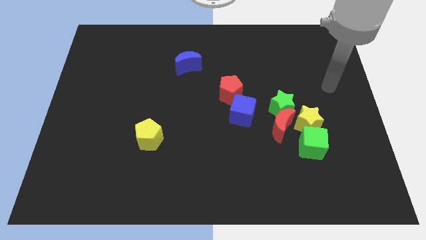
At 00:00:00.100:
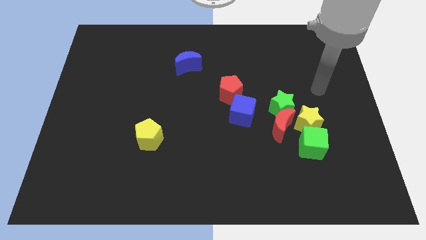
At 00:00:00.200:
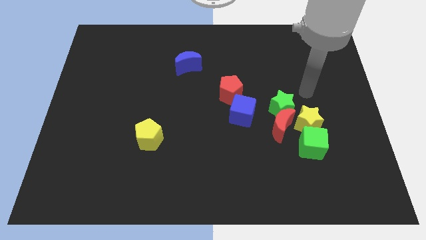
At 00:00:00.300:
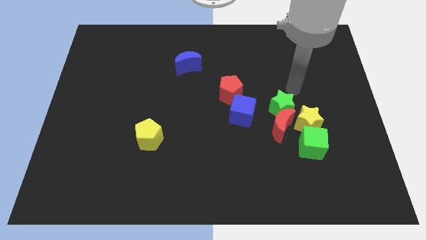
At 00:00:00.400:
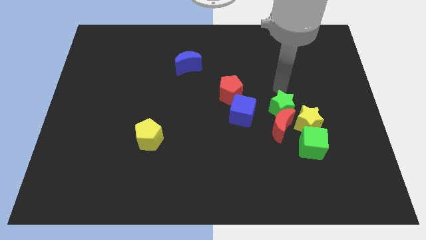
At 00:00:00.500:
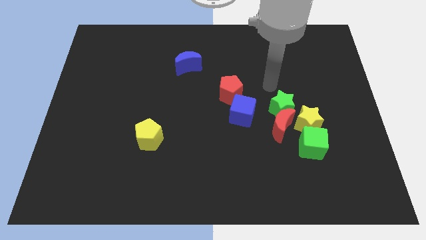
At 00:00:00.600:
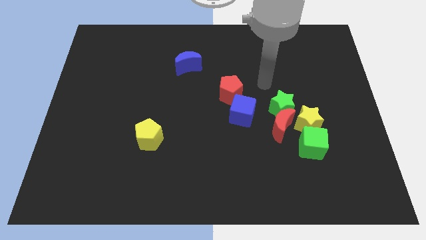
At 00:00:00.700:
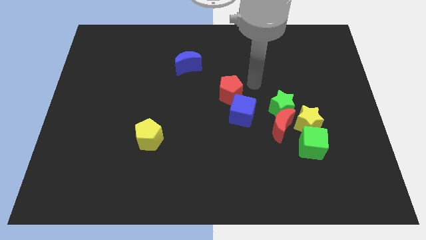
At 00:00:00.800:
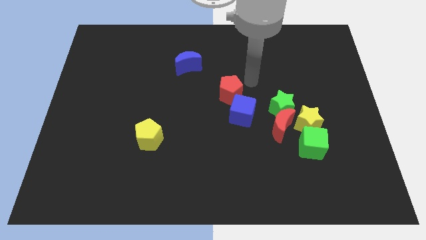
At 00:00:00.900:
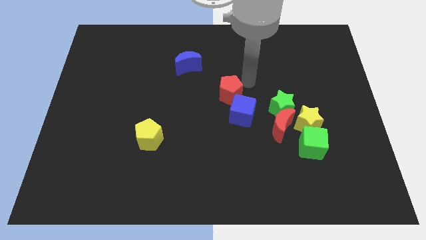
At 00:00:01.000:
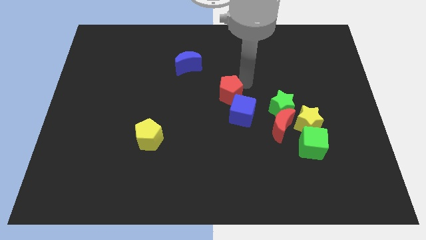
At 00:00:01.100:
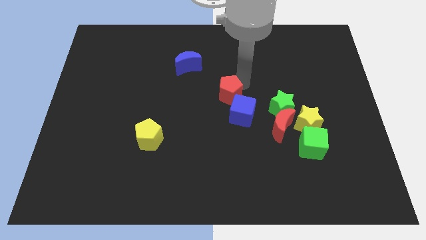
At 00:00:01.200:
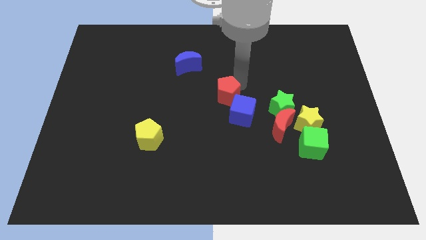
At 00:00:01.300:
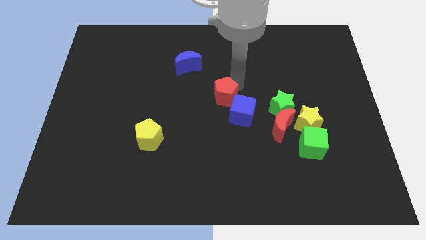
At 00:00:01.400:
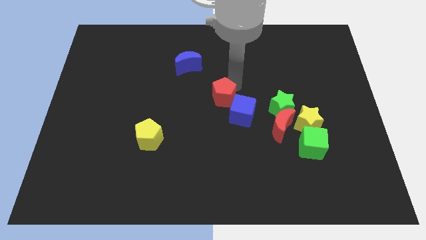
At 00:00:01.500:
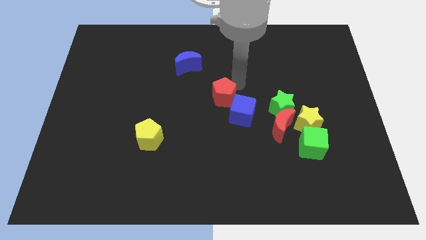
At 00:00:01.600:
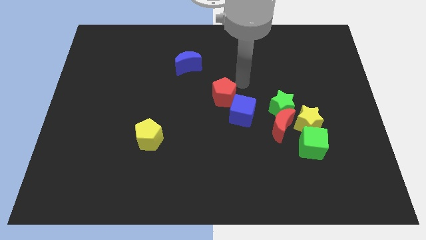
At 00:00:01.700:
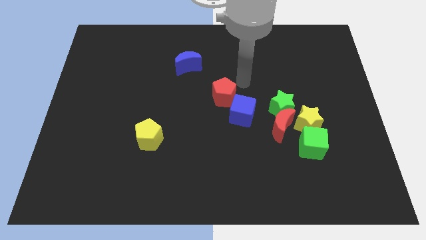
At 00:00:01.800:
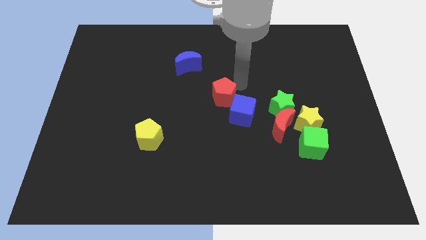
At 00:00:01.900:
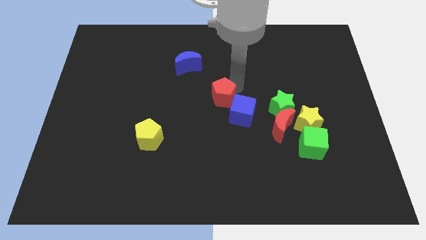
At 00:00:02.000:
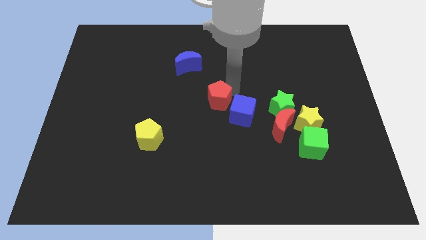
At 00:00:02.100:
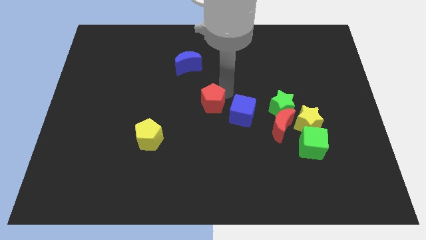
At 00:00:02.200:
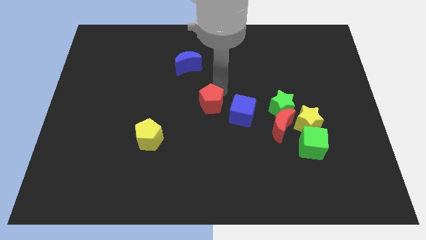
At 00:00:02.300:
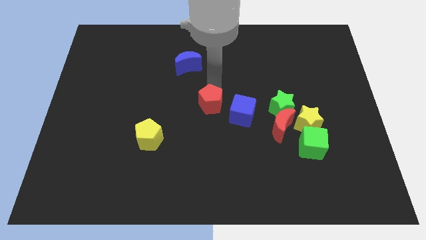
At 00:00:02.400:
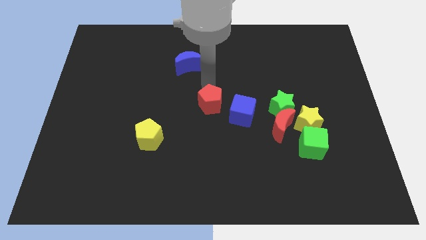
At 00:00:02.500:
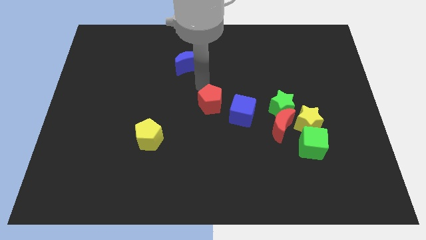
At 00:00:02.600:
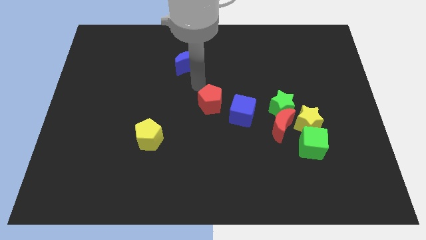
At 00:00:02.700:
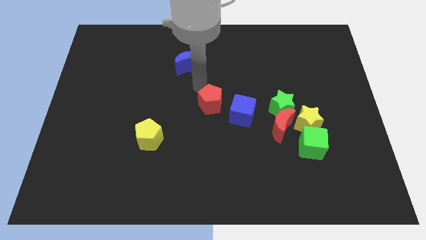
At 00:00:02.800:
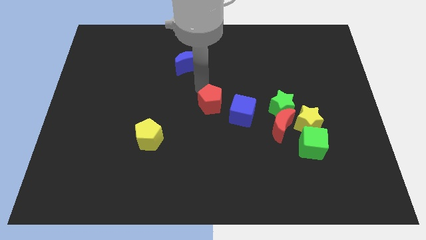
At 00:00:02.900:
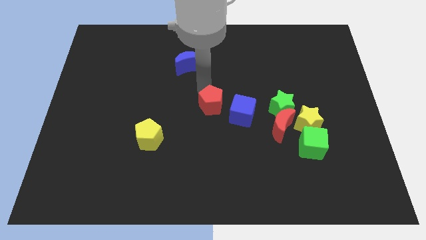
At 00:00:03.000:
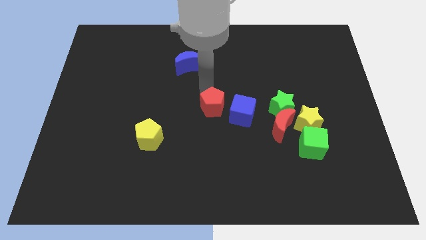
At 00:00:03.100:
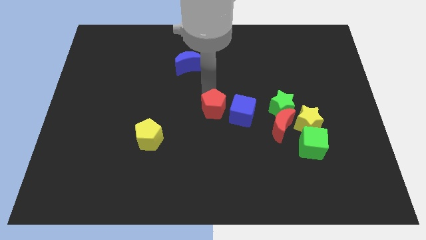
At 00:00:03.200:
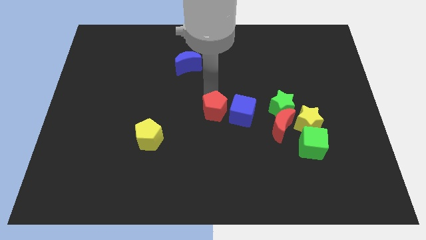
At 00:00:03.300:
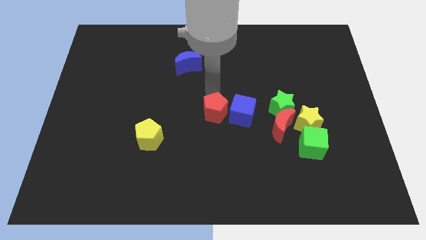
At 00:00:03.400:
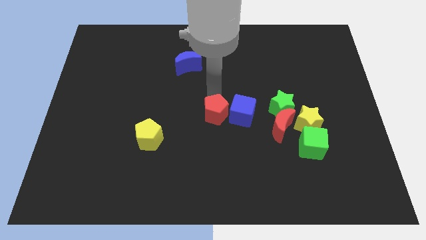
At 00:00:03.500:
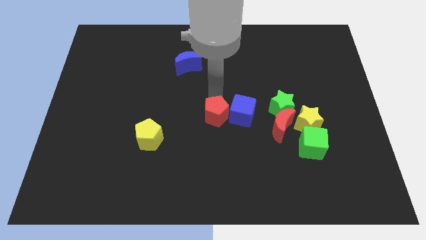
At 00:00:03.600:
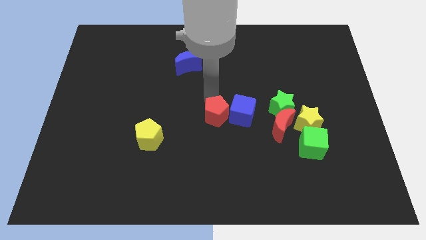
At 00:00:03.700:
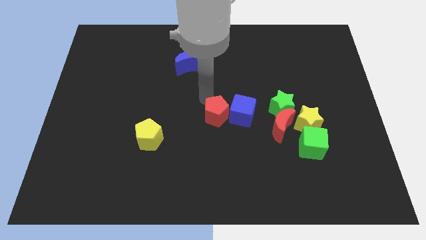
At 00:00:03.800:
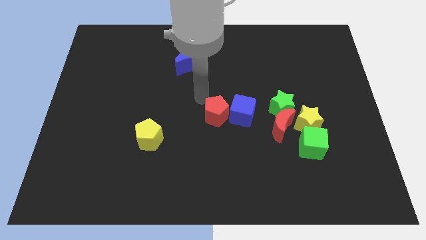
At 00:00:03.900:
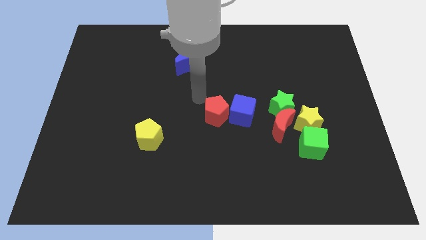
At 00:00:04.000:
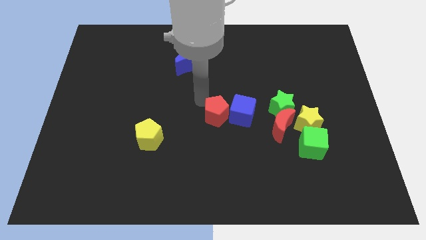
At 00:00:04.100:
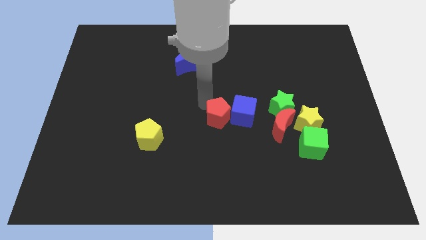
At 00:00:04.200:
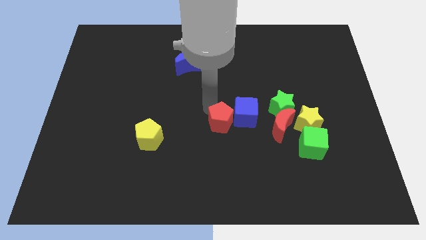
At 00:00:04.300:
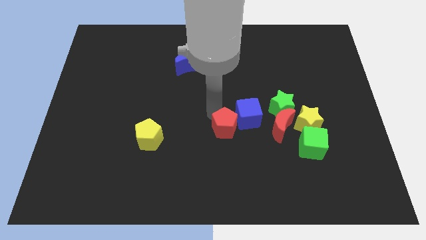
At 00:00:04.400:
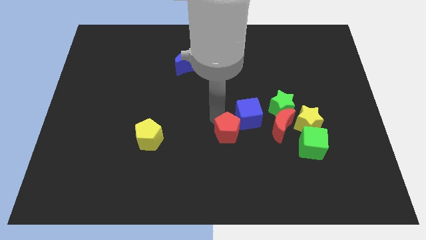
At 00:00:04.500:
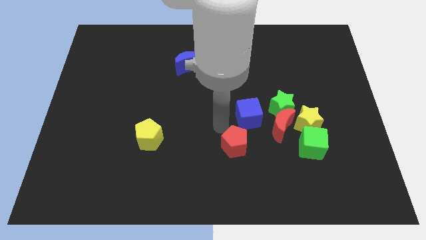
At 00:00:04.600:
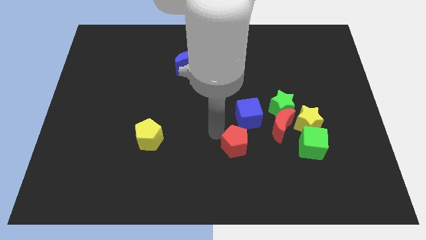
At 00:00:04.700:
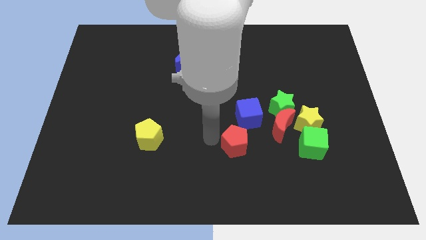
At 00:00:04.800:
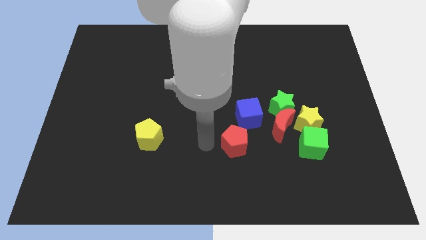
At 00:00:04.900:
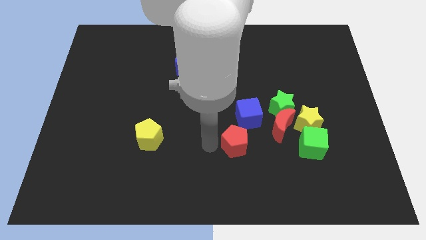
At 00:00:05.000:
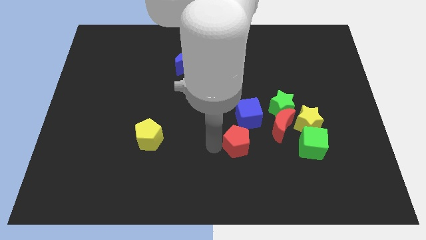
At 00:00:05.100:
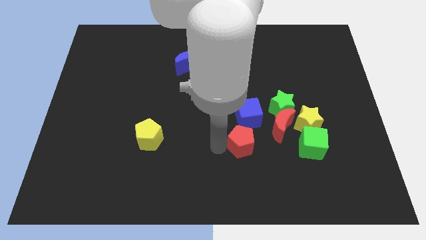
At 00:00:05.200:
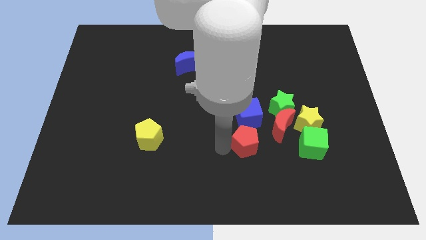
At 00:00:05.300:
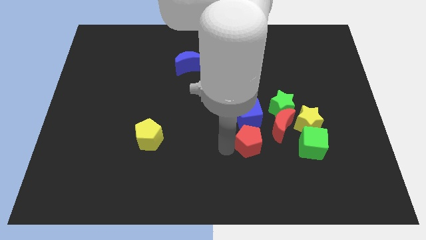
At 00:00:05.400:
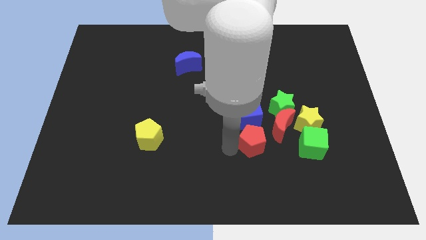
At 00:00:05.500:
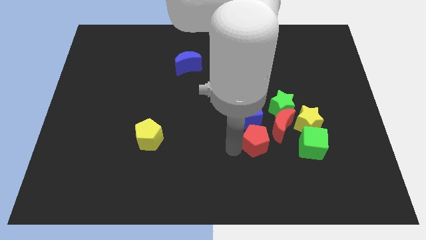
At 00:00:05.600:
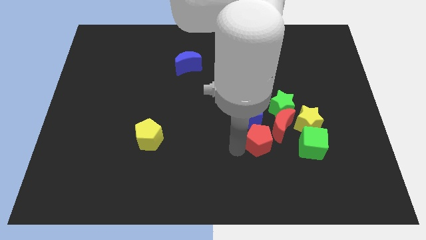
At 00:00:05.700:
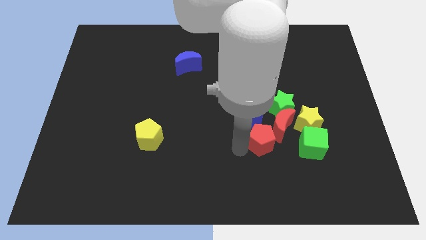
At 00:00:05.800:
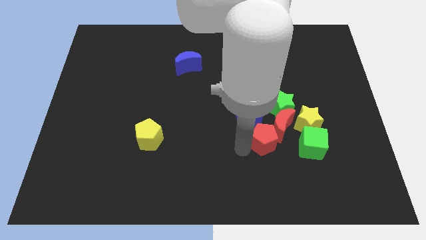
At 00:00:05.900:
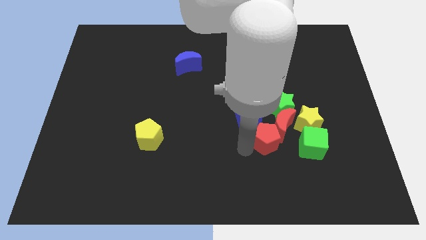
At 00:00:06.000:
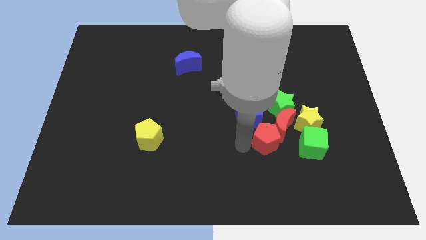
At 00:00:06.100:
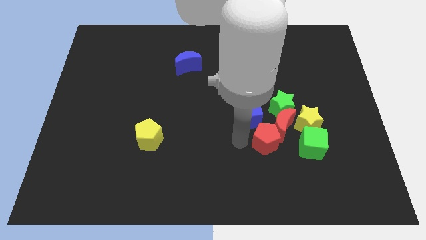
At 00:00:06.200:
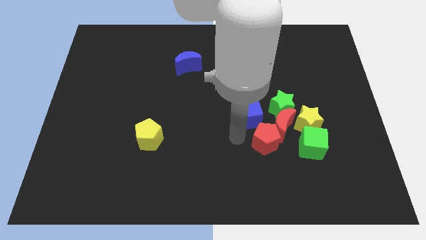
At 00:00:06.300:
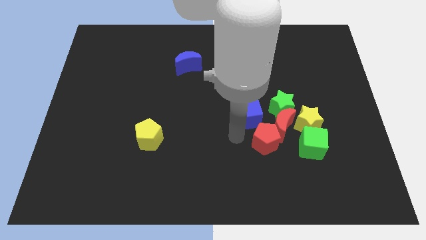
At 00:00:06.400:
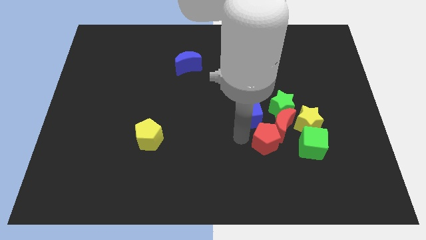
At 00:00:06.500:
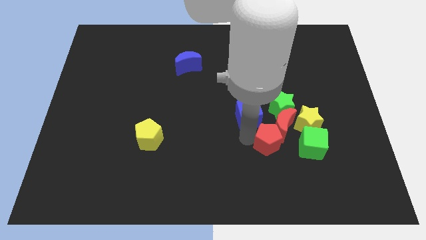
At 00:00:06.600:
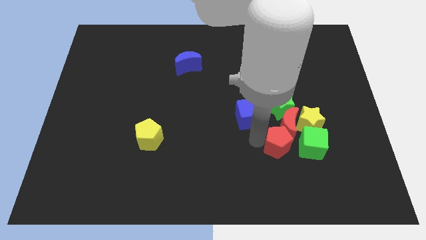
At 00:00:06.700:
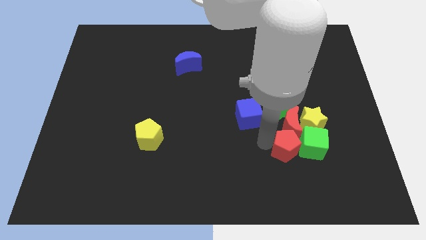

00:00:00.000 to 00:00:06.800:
move the red pentagon close to the green cube
